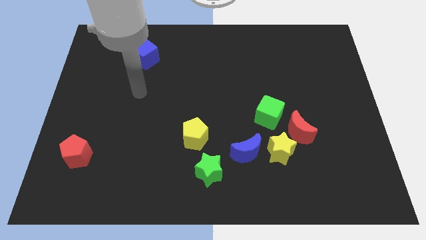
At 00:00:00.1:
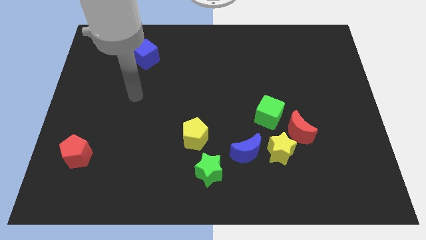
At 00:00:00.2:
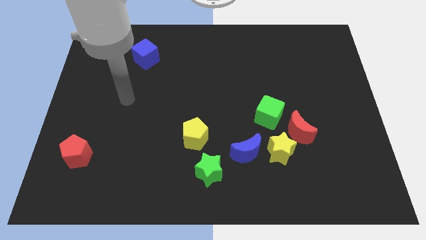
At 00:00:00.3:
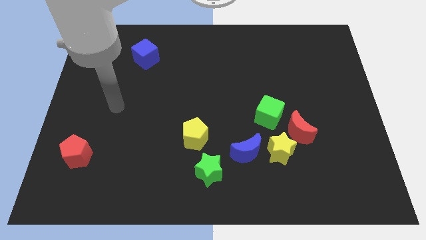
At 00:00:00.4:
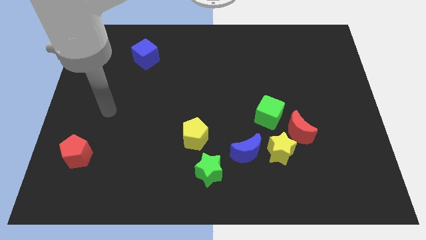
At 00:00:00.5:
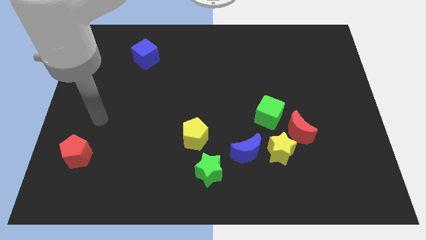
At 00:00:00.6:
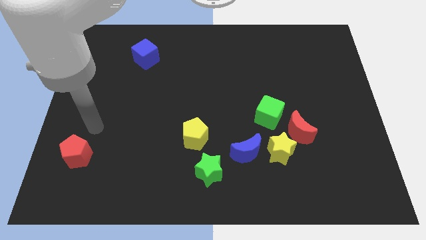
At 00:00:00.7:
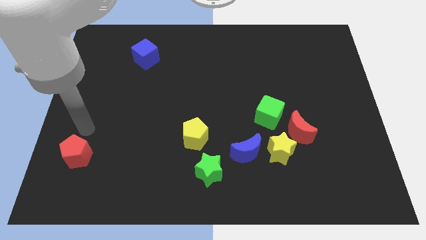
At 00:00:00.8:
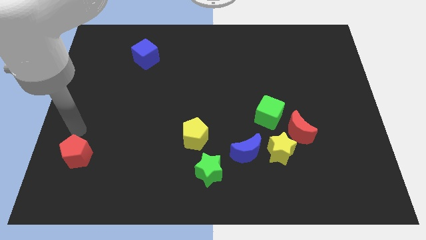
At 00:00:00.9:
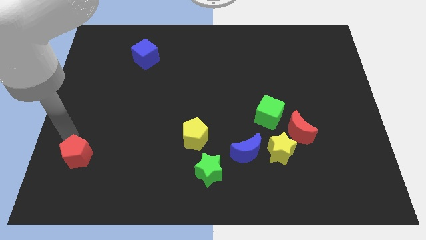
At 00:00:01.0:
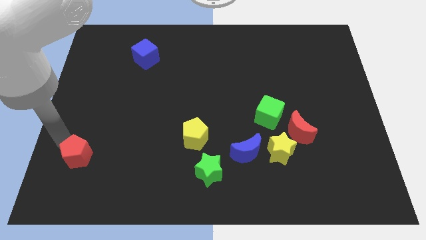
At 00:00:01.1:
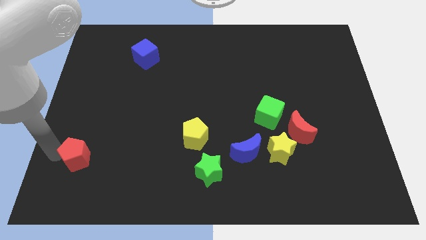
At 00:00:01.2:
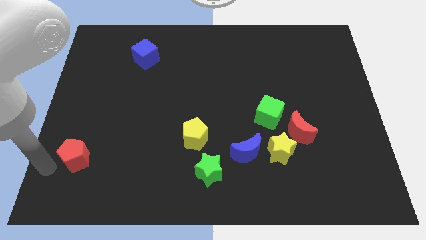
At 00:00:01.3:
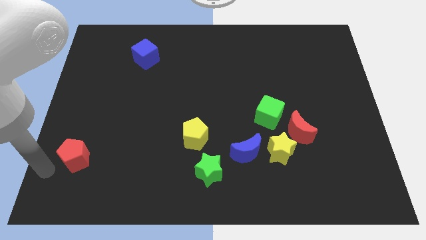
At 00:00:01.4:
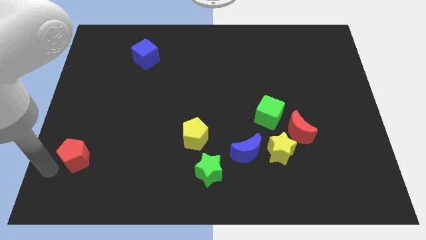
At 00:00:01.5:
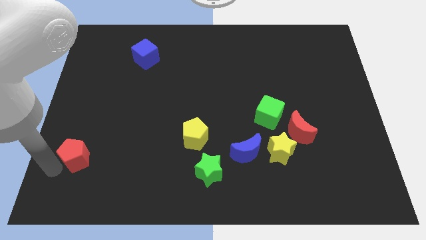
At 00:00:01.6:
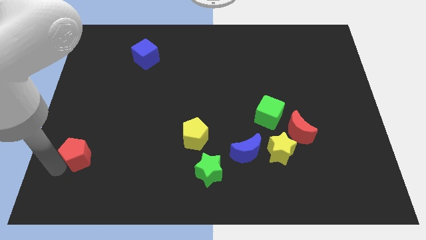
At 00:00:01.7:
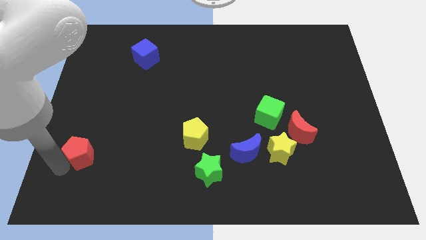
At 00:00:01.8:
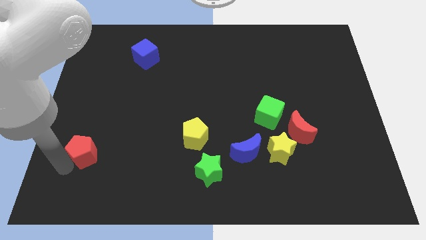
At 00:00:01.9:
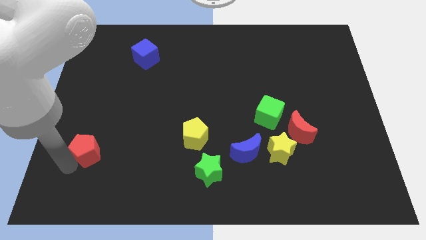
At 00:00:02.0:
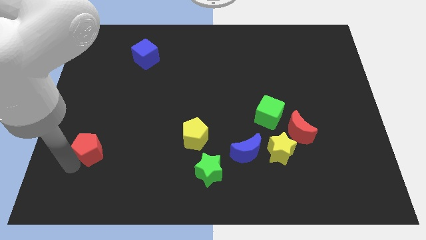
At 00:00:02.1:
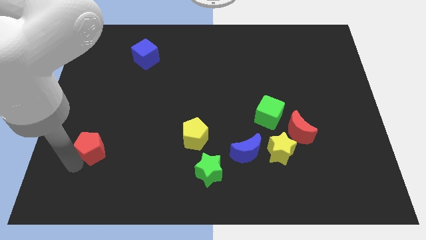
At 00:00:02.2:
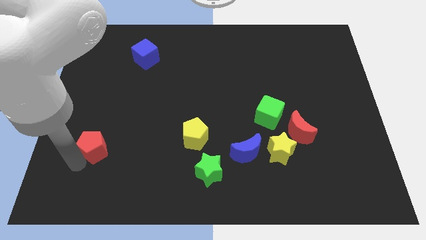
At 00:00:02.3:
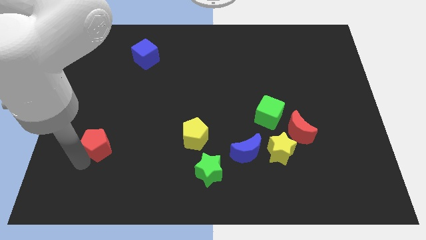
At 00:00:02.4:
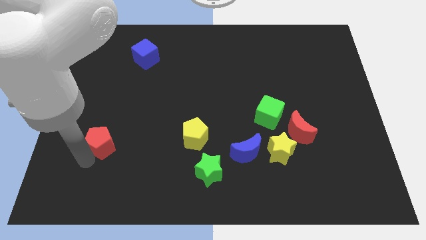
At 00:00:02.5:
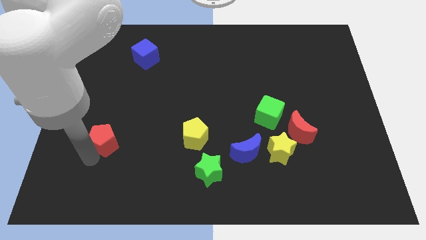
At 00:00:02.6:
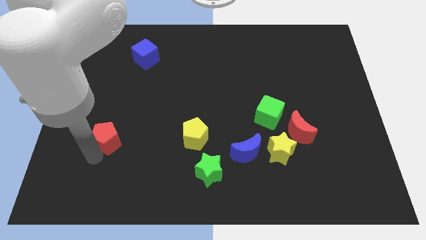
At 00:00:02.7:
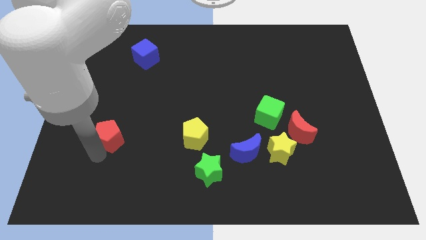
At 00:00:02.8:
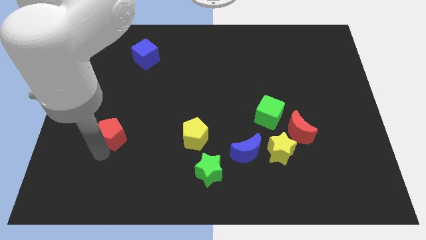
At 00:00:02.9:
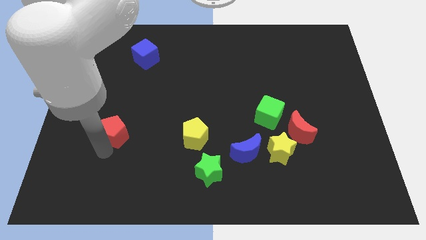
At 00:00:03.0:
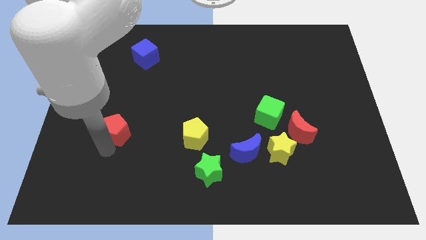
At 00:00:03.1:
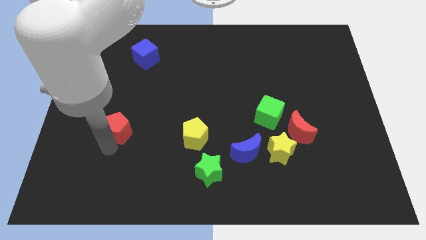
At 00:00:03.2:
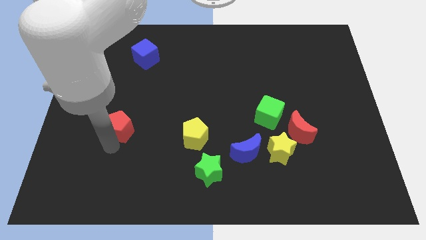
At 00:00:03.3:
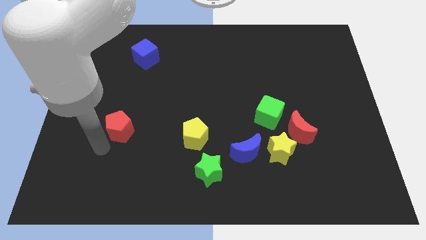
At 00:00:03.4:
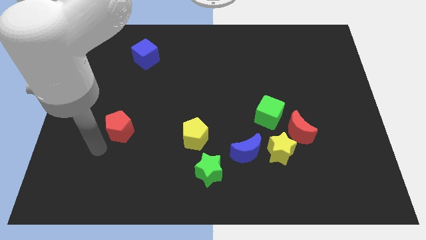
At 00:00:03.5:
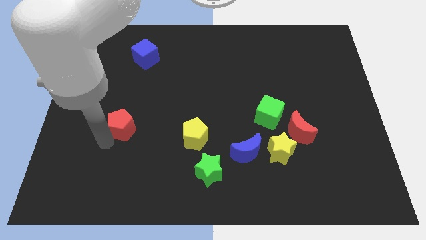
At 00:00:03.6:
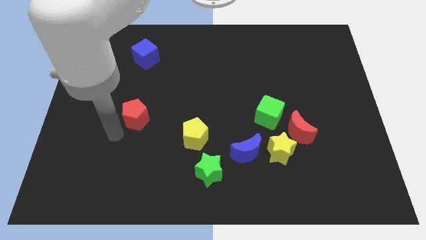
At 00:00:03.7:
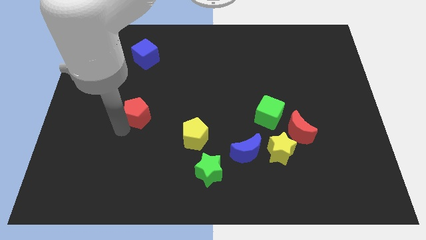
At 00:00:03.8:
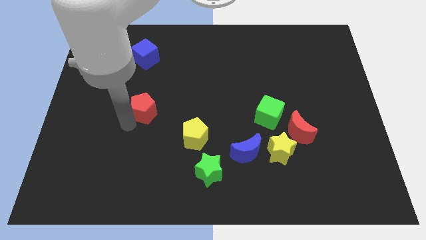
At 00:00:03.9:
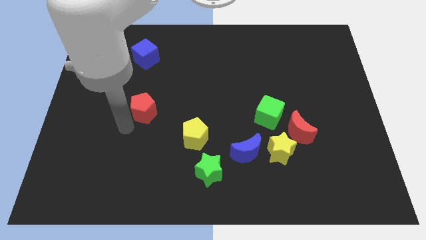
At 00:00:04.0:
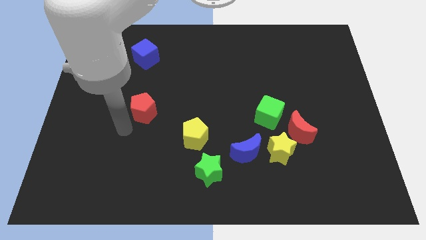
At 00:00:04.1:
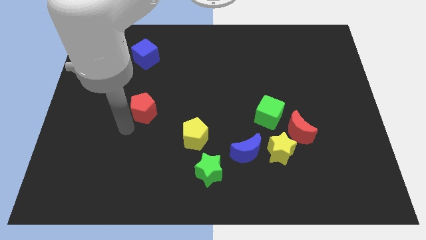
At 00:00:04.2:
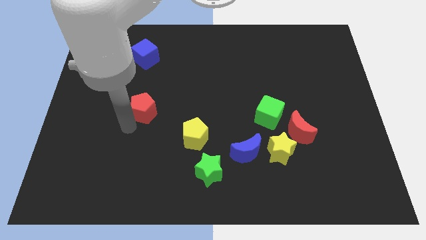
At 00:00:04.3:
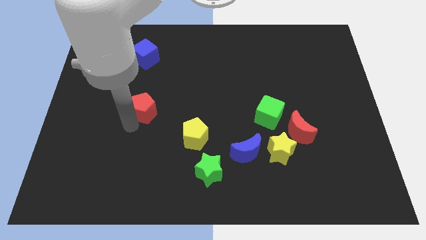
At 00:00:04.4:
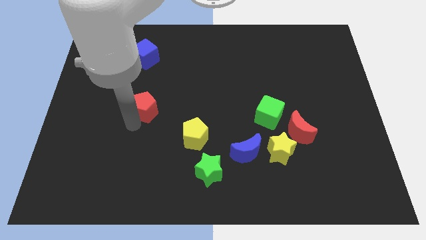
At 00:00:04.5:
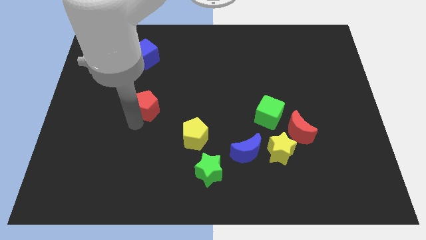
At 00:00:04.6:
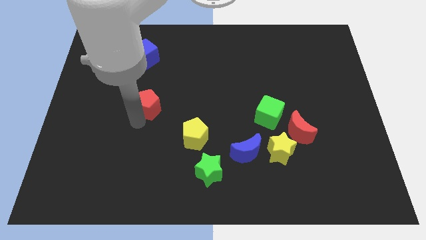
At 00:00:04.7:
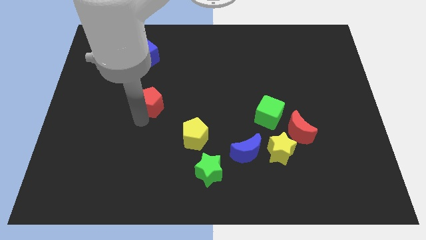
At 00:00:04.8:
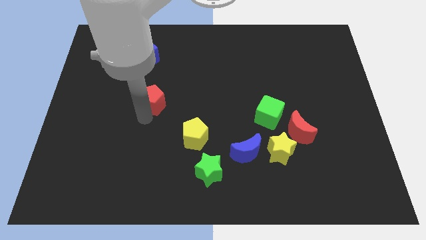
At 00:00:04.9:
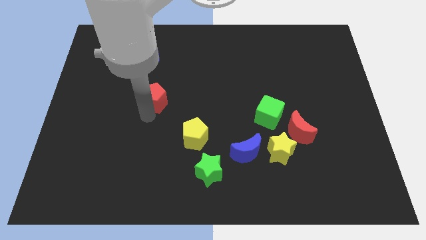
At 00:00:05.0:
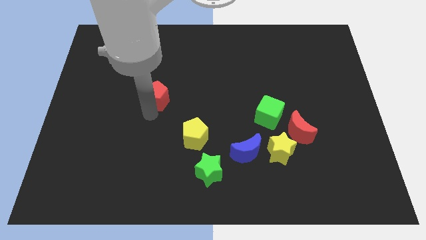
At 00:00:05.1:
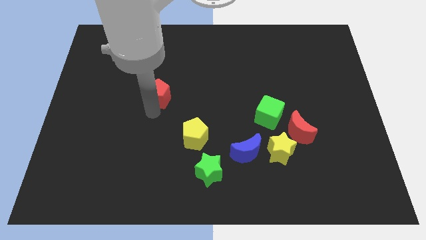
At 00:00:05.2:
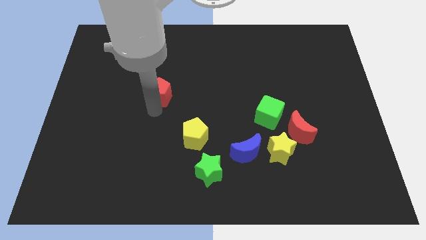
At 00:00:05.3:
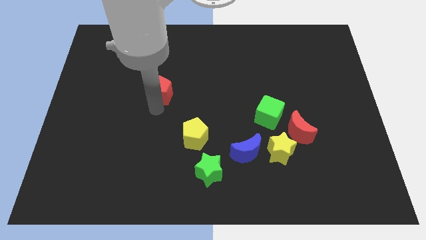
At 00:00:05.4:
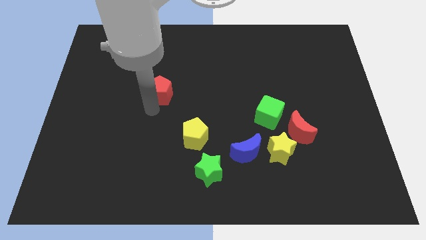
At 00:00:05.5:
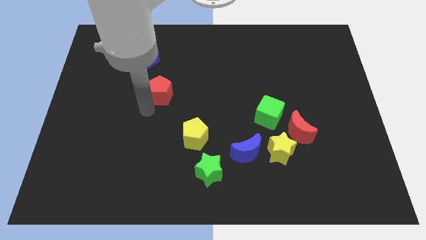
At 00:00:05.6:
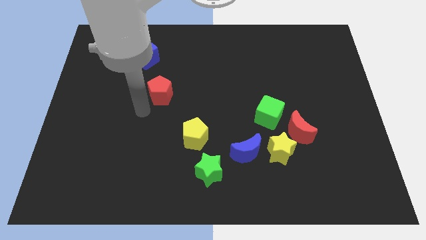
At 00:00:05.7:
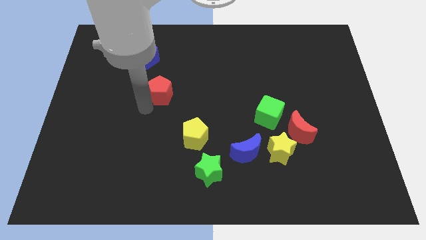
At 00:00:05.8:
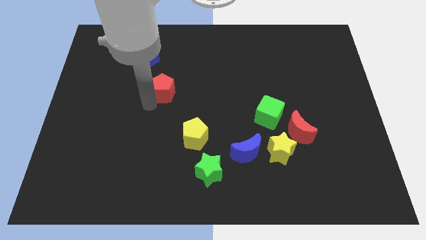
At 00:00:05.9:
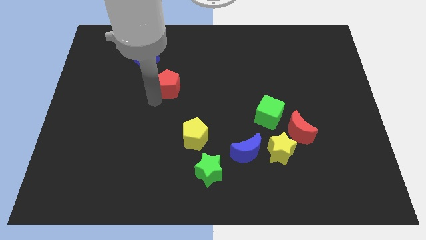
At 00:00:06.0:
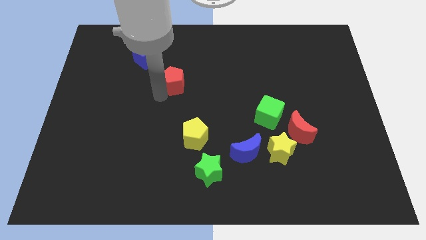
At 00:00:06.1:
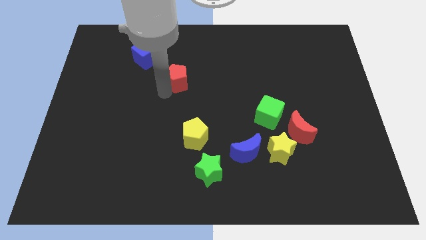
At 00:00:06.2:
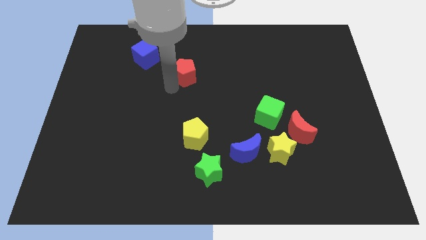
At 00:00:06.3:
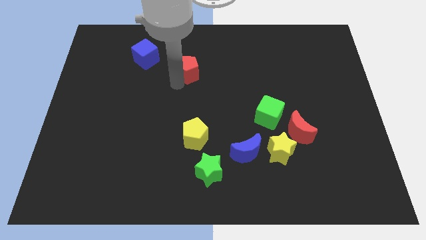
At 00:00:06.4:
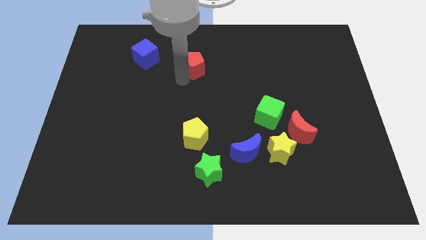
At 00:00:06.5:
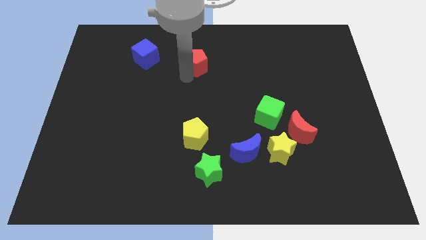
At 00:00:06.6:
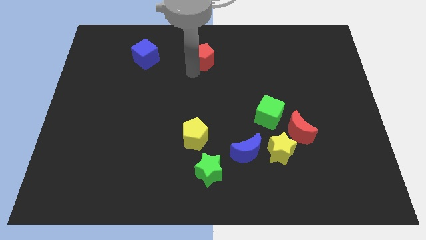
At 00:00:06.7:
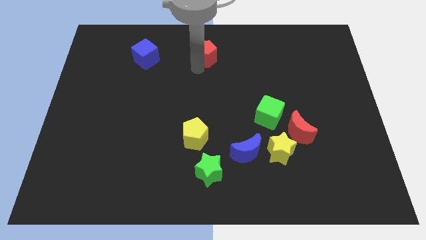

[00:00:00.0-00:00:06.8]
put the red pentagon to the top side
